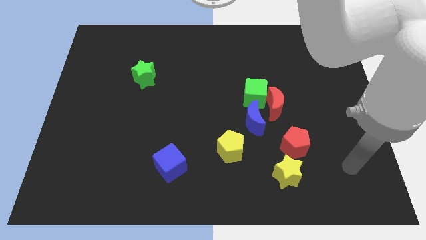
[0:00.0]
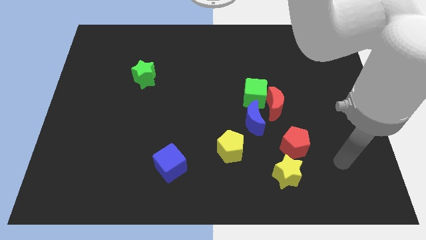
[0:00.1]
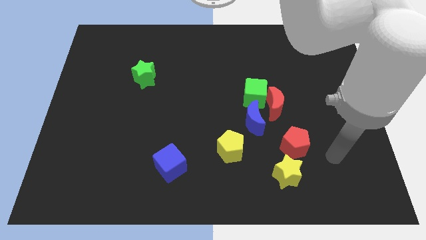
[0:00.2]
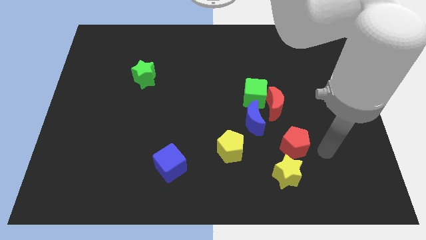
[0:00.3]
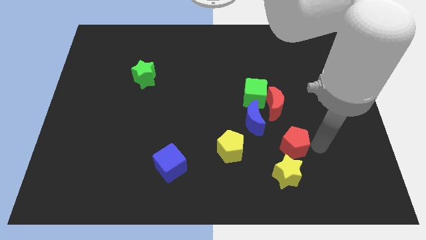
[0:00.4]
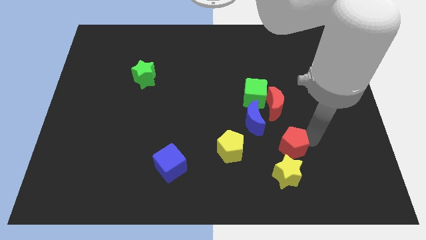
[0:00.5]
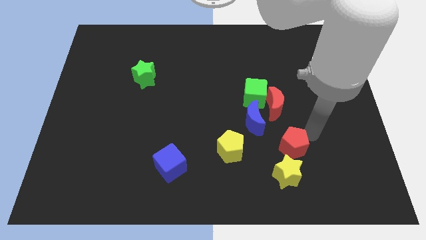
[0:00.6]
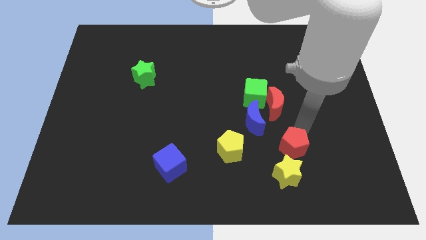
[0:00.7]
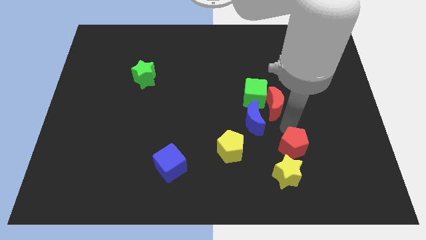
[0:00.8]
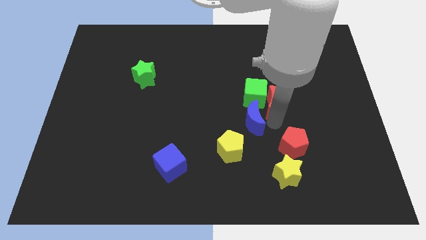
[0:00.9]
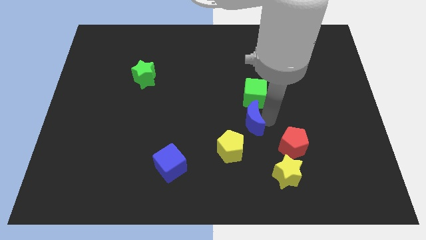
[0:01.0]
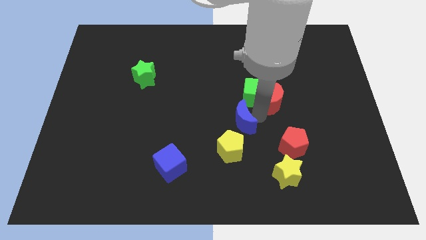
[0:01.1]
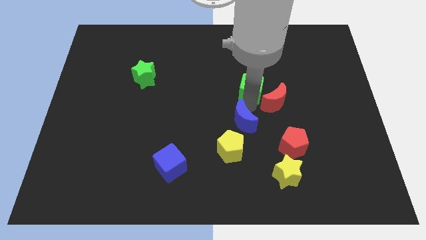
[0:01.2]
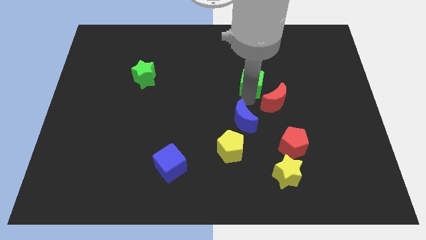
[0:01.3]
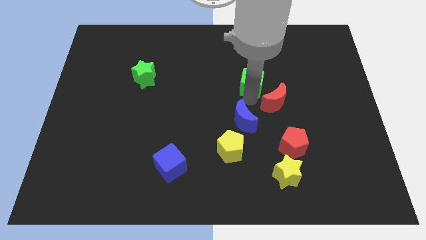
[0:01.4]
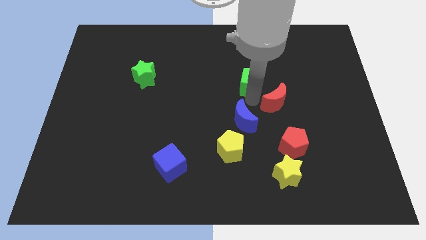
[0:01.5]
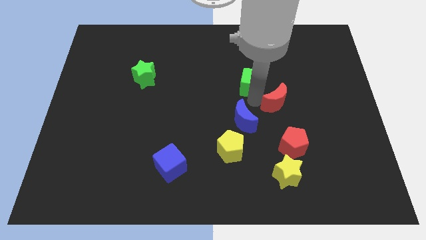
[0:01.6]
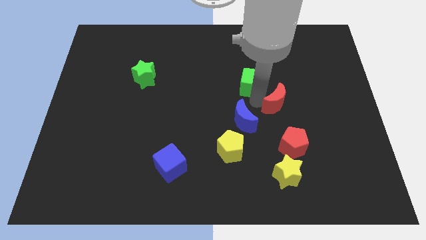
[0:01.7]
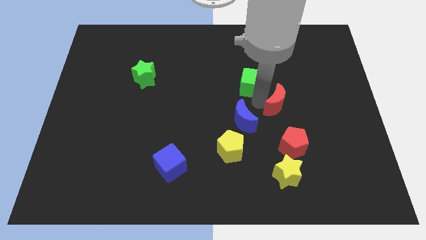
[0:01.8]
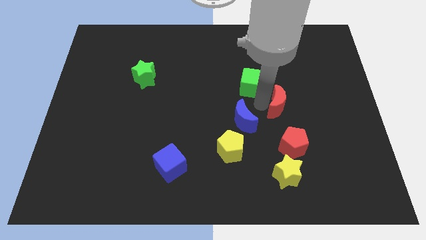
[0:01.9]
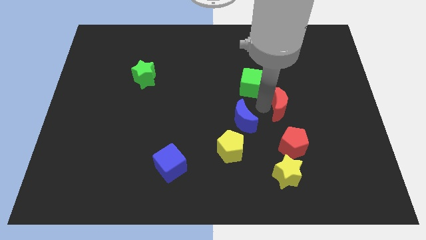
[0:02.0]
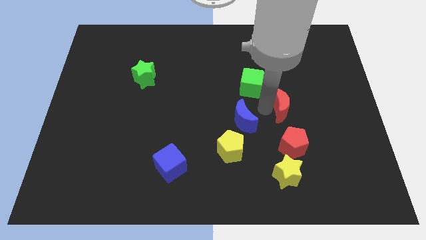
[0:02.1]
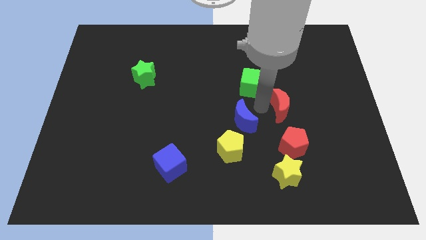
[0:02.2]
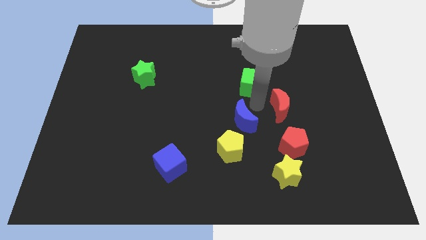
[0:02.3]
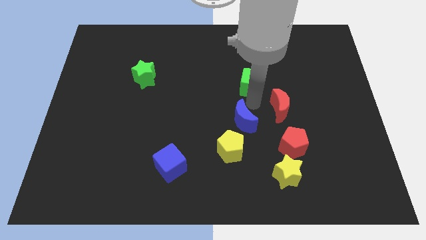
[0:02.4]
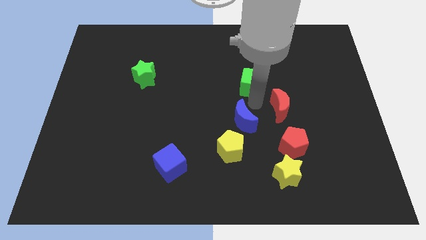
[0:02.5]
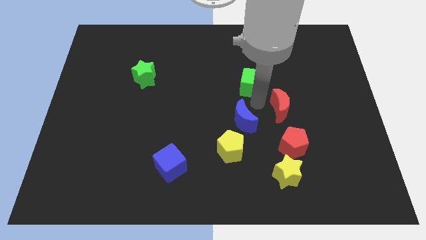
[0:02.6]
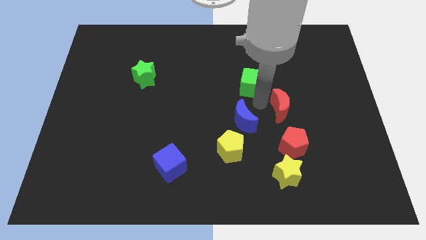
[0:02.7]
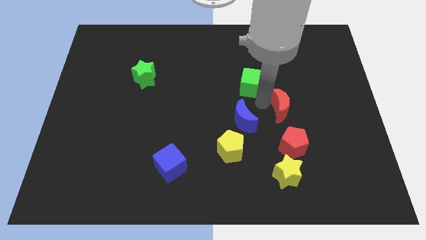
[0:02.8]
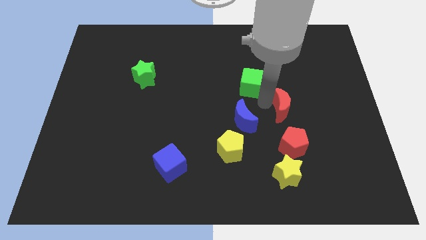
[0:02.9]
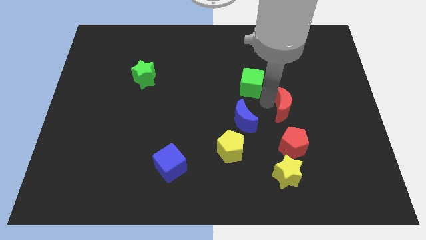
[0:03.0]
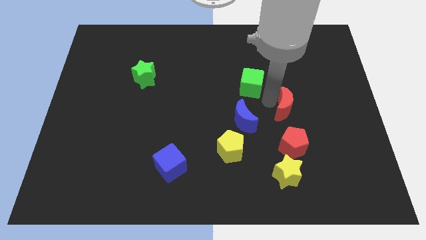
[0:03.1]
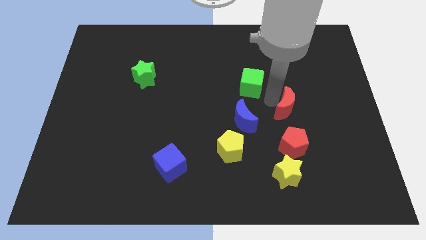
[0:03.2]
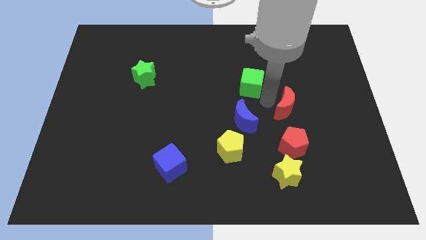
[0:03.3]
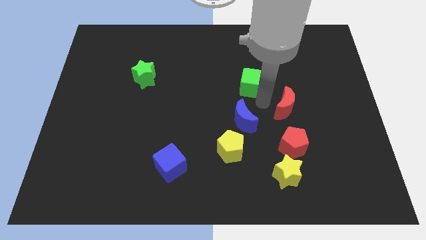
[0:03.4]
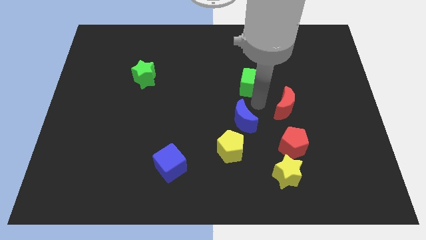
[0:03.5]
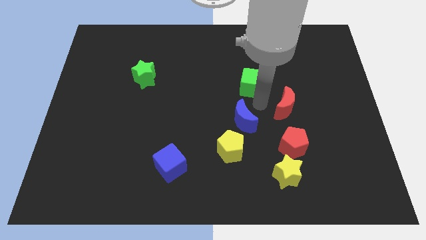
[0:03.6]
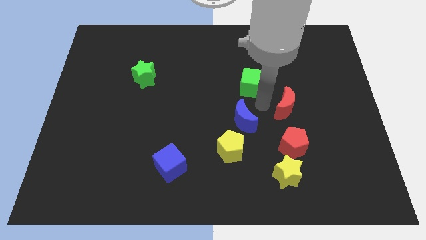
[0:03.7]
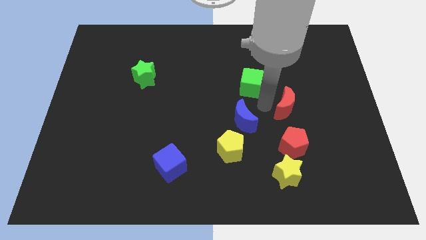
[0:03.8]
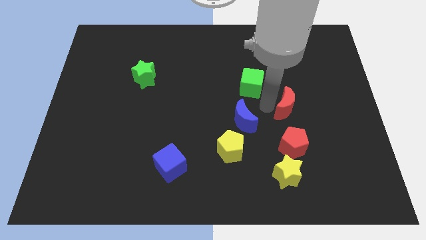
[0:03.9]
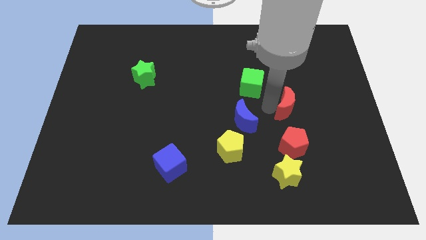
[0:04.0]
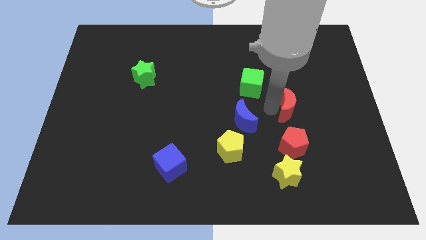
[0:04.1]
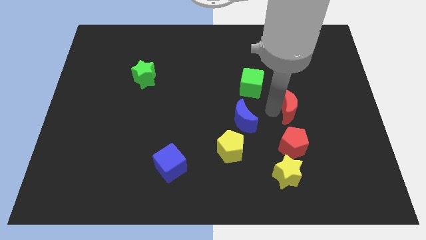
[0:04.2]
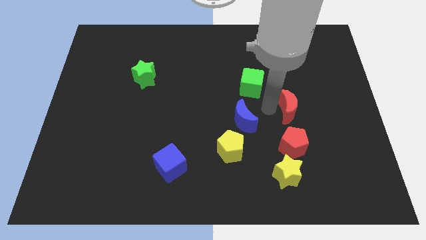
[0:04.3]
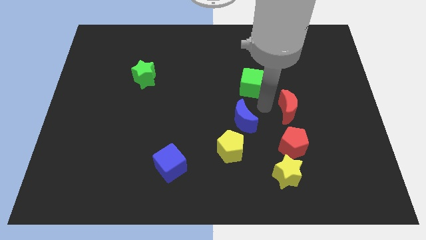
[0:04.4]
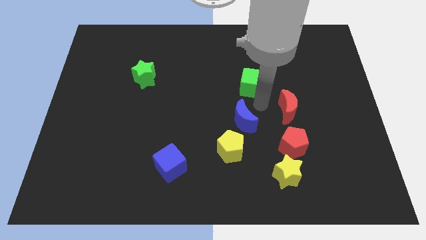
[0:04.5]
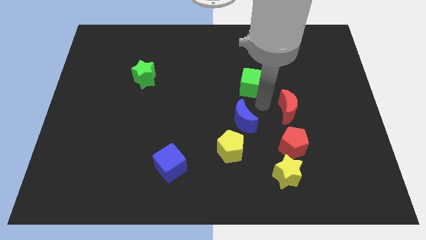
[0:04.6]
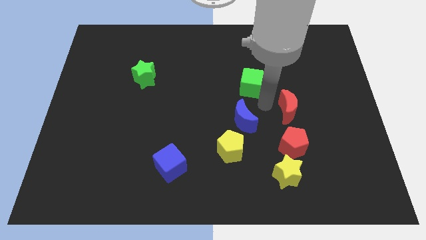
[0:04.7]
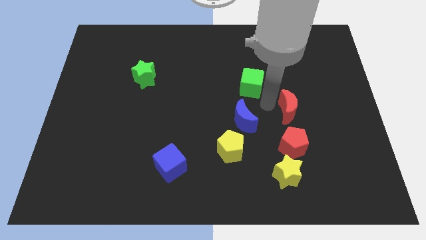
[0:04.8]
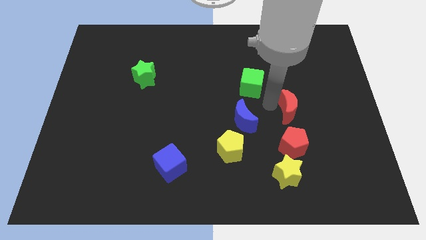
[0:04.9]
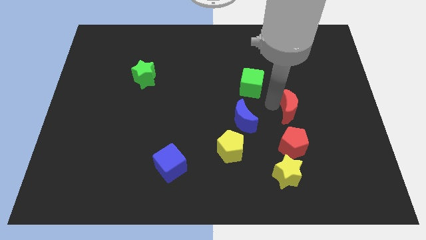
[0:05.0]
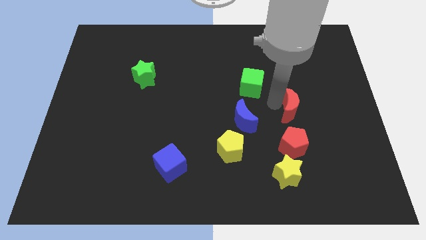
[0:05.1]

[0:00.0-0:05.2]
separate the red moon from the green cube and blue moon

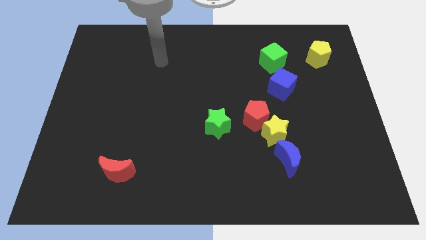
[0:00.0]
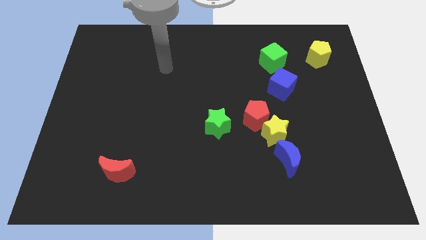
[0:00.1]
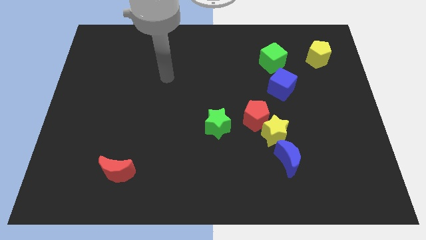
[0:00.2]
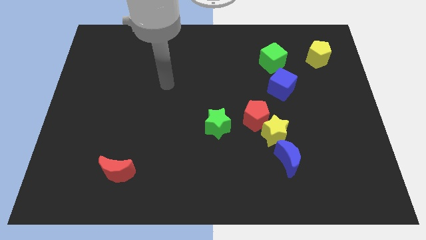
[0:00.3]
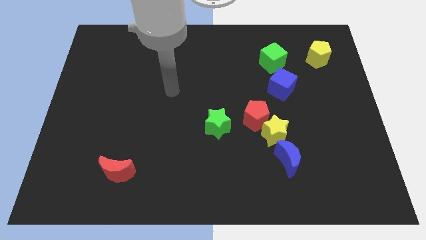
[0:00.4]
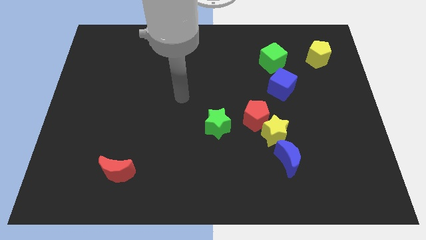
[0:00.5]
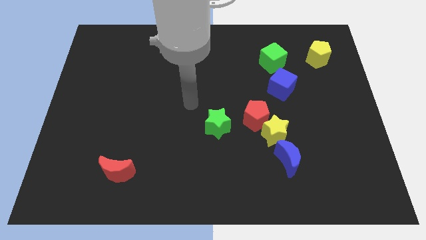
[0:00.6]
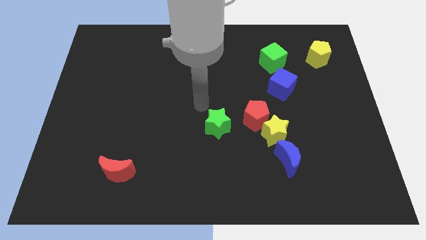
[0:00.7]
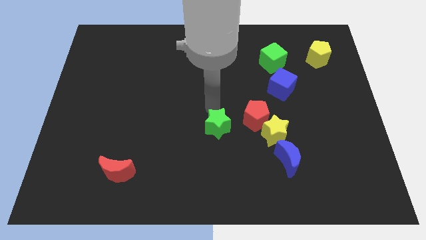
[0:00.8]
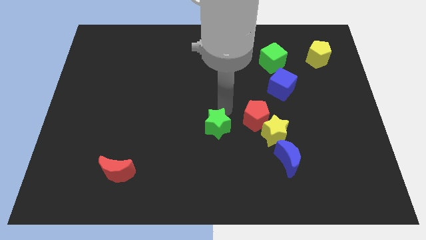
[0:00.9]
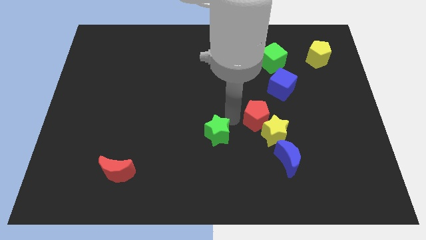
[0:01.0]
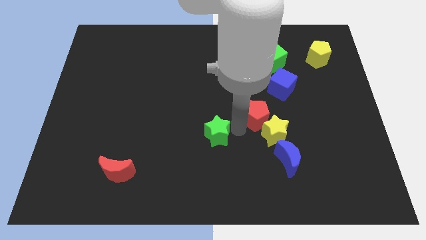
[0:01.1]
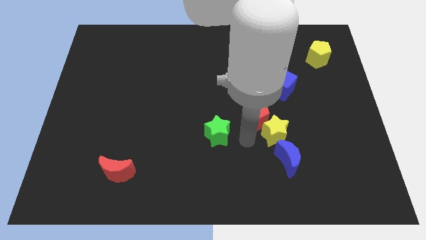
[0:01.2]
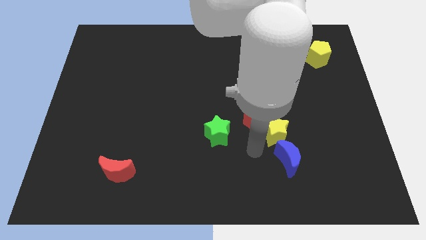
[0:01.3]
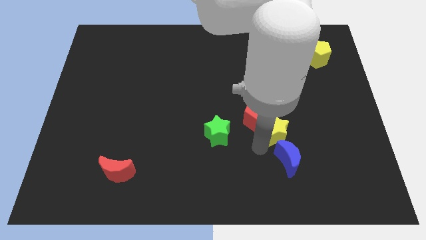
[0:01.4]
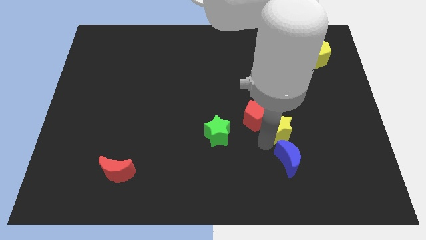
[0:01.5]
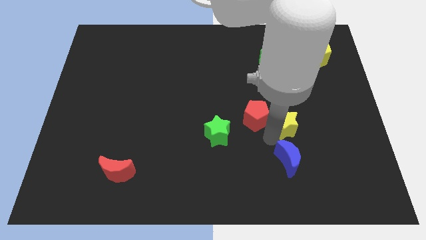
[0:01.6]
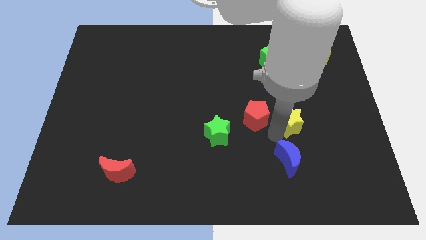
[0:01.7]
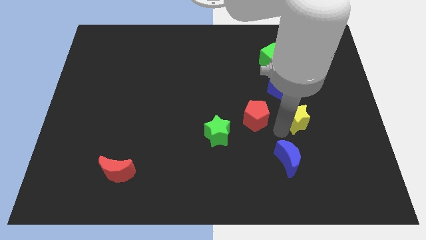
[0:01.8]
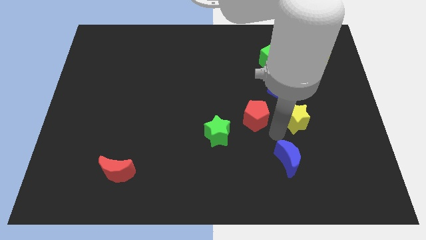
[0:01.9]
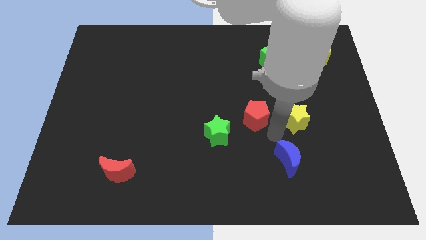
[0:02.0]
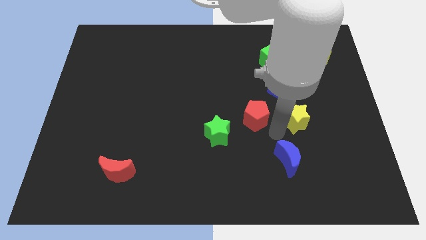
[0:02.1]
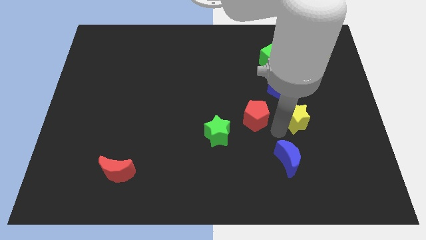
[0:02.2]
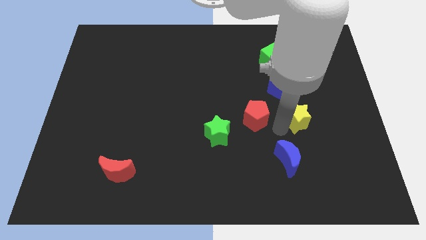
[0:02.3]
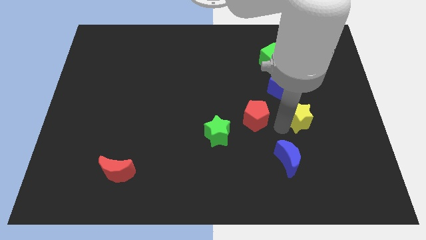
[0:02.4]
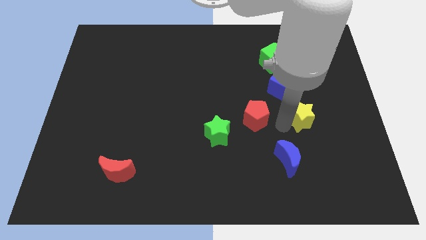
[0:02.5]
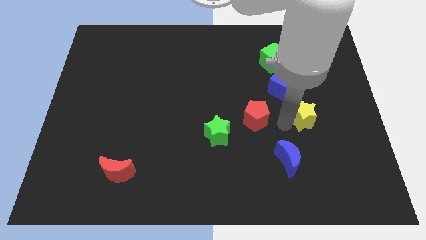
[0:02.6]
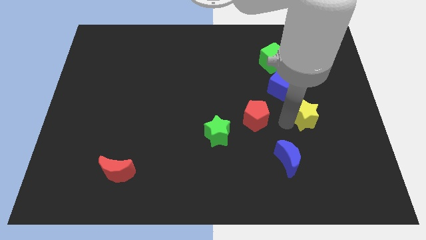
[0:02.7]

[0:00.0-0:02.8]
separate the yellow star from the red pentagon and blue moon

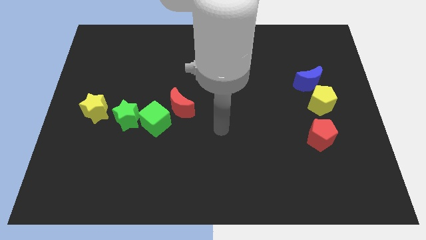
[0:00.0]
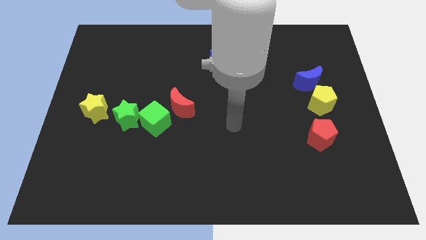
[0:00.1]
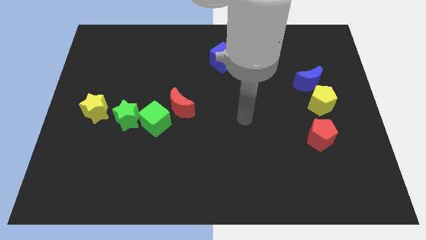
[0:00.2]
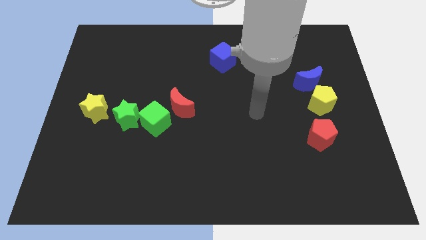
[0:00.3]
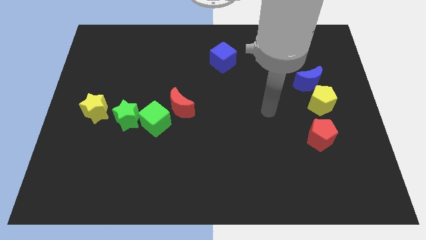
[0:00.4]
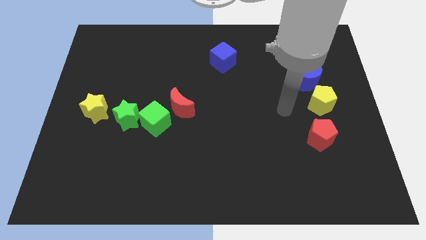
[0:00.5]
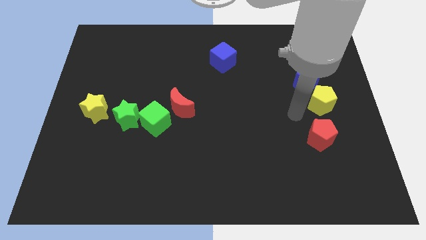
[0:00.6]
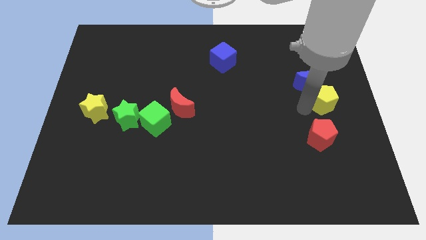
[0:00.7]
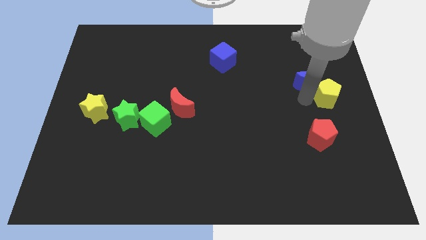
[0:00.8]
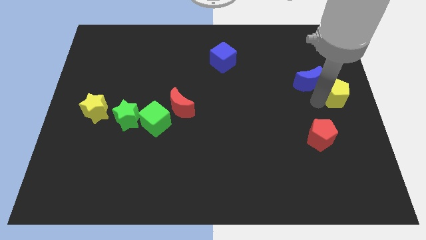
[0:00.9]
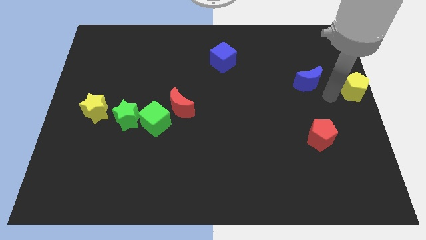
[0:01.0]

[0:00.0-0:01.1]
move the blue moon away from the yellow pentagon

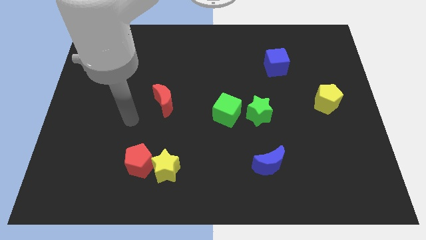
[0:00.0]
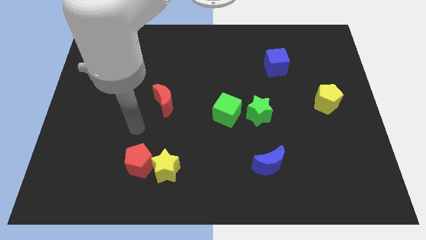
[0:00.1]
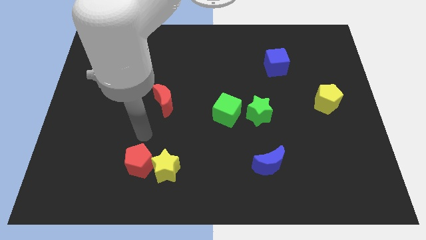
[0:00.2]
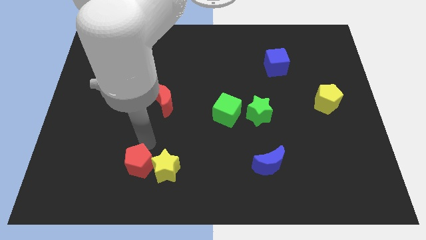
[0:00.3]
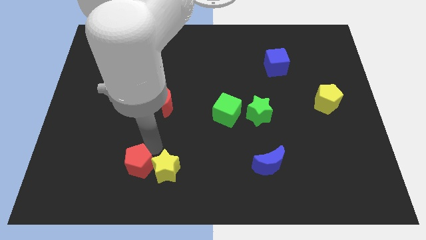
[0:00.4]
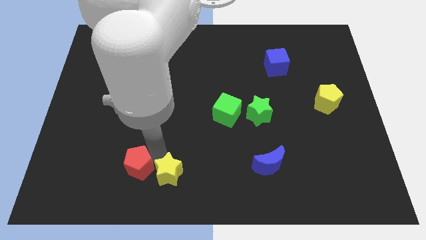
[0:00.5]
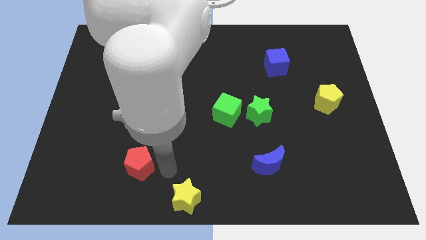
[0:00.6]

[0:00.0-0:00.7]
separate the red pentagon from the yellow star
